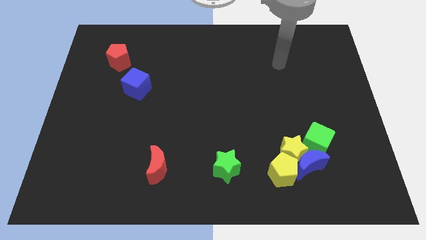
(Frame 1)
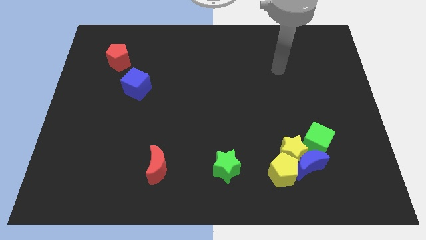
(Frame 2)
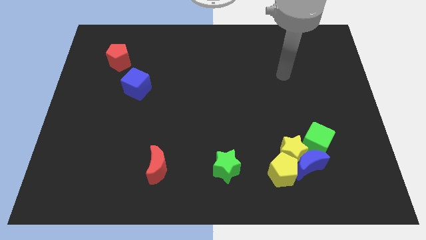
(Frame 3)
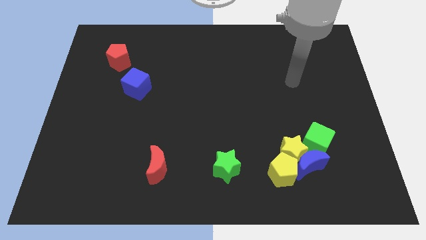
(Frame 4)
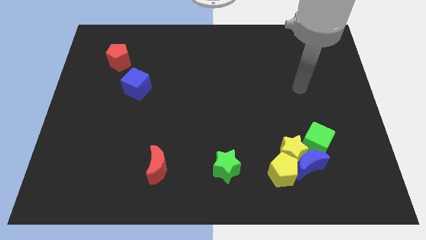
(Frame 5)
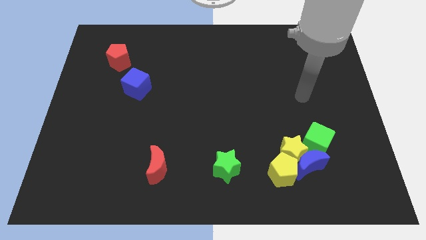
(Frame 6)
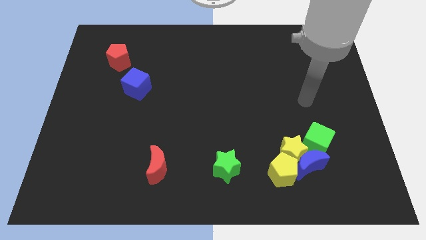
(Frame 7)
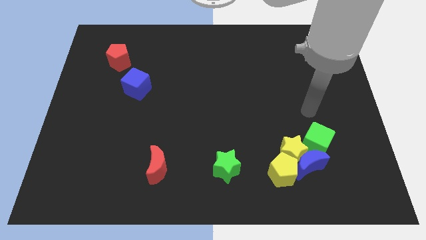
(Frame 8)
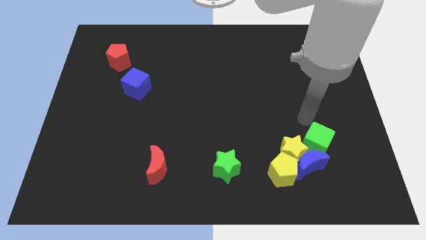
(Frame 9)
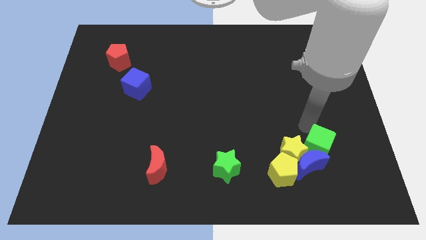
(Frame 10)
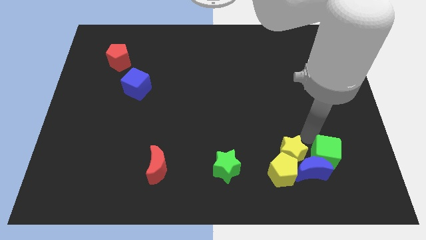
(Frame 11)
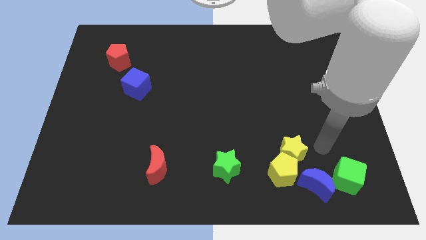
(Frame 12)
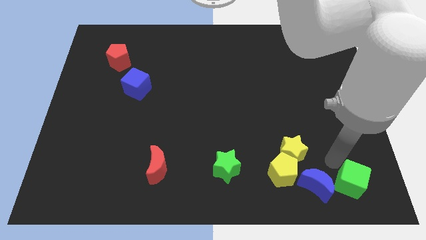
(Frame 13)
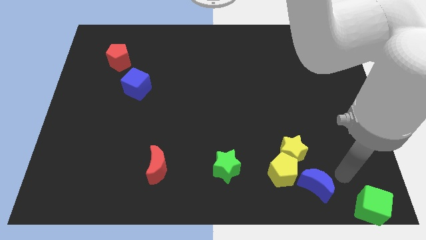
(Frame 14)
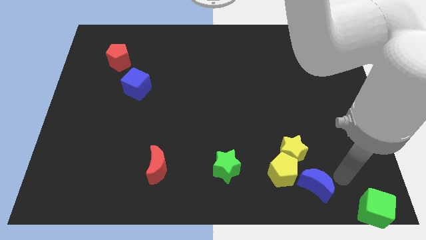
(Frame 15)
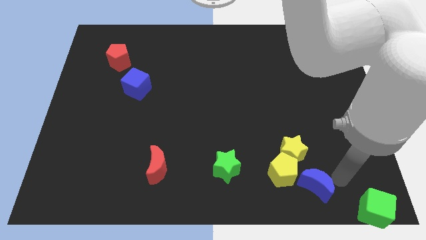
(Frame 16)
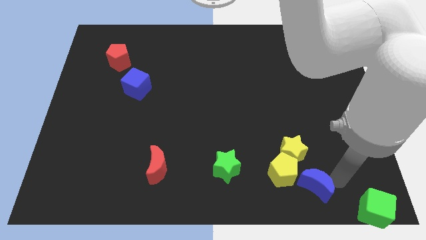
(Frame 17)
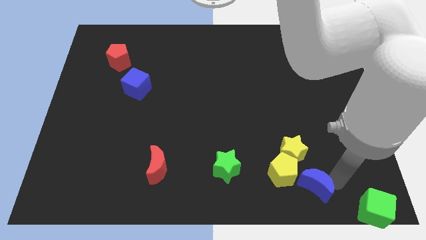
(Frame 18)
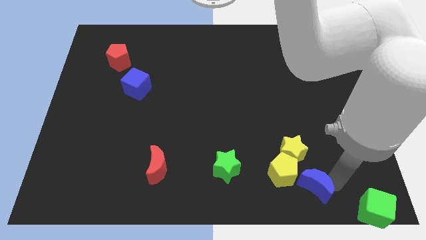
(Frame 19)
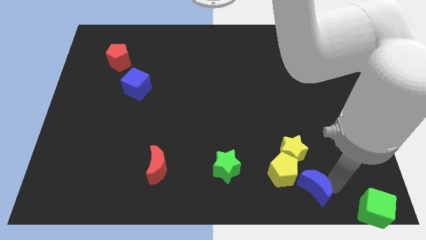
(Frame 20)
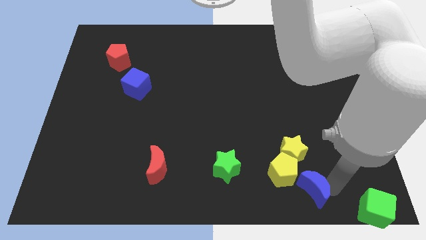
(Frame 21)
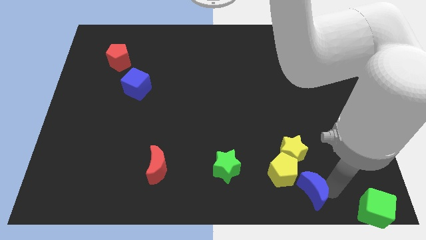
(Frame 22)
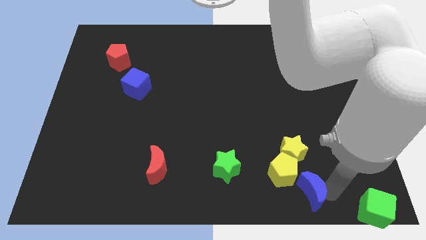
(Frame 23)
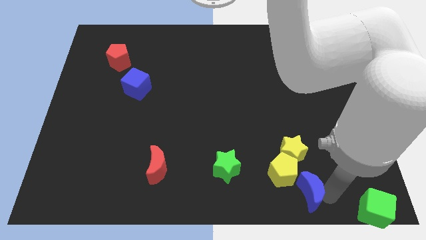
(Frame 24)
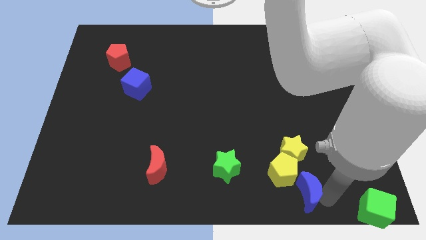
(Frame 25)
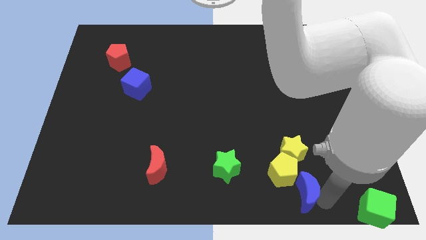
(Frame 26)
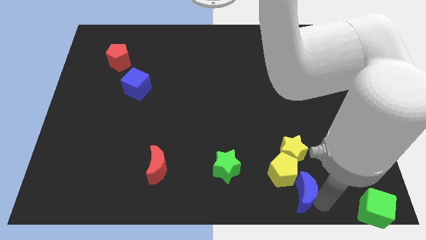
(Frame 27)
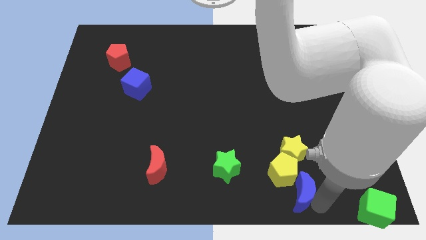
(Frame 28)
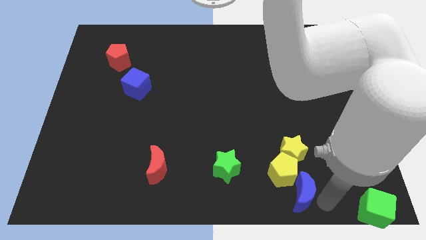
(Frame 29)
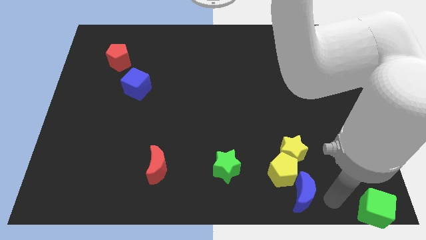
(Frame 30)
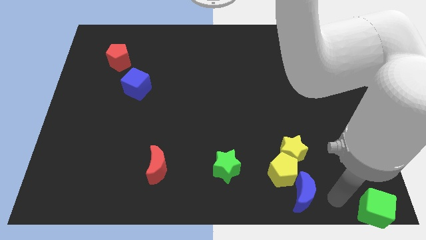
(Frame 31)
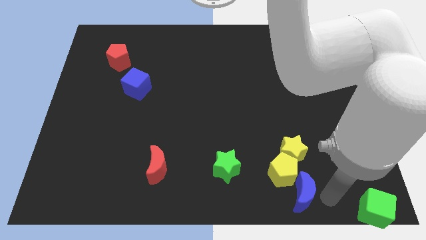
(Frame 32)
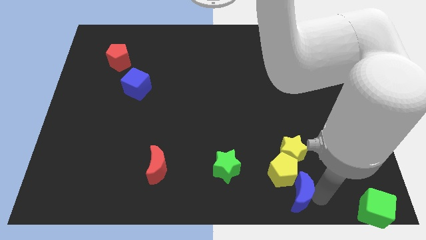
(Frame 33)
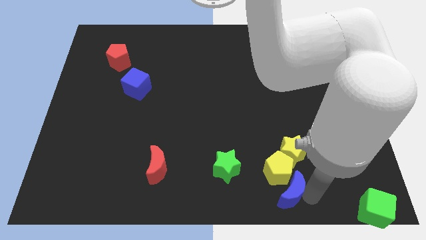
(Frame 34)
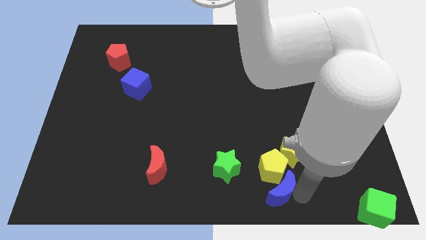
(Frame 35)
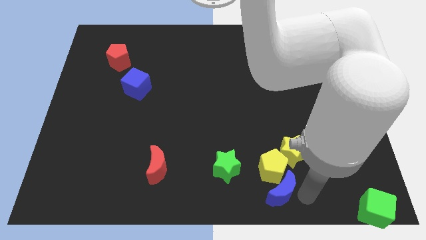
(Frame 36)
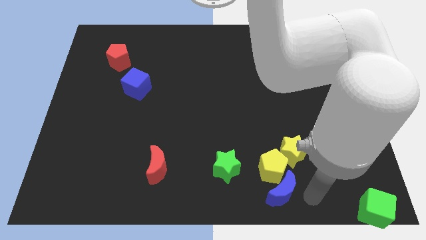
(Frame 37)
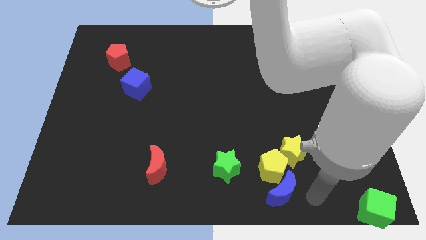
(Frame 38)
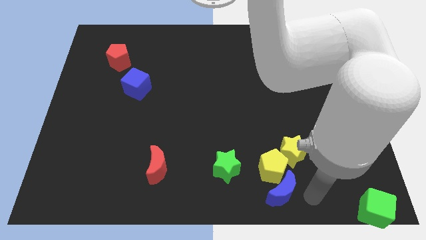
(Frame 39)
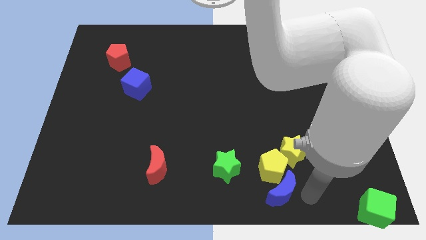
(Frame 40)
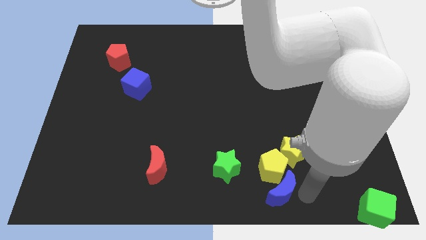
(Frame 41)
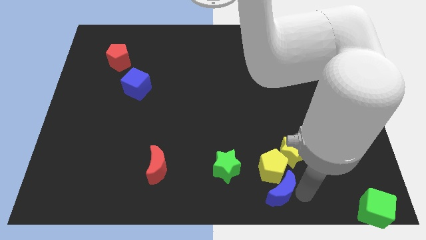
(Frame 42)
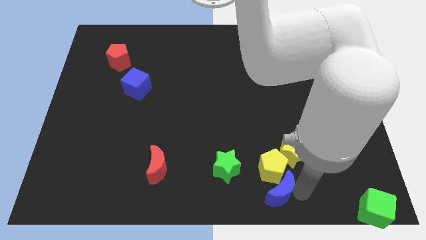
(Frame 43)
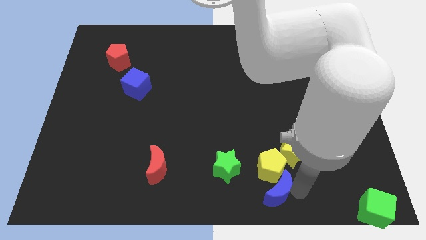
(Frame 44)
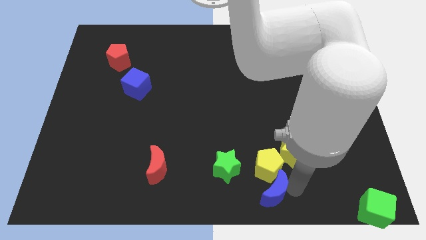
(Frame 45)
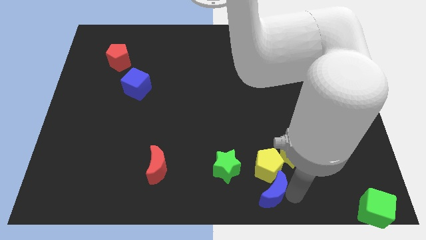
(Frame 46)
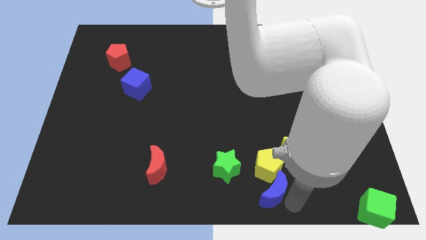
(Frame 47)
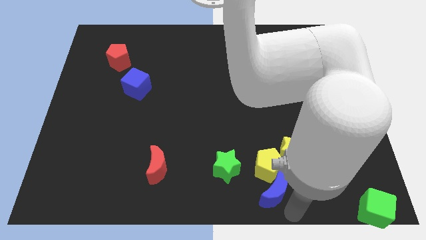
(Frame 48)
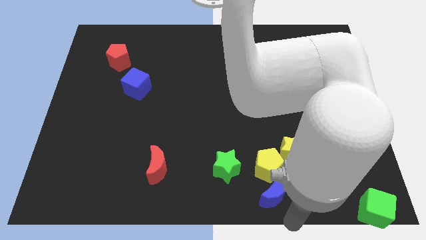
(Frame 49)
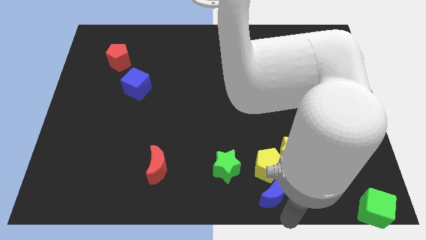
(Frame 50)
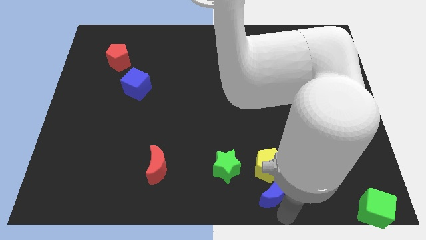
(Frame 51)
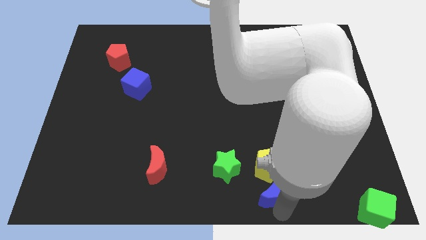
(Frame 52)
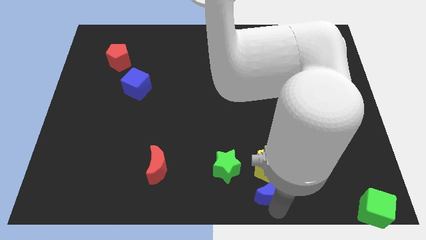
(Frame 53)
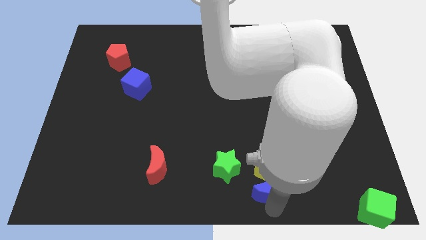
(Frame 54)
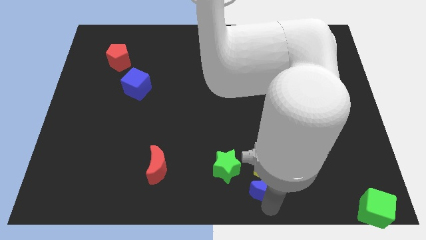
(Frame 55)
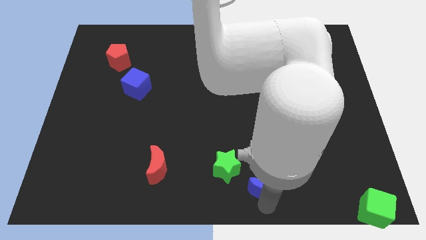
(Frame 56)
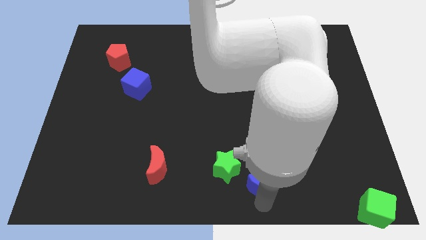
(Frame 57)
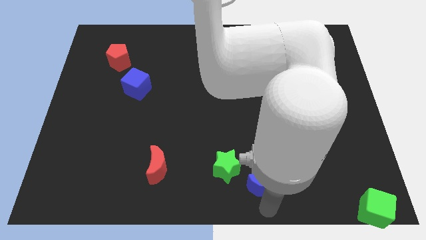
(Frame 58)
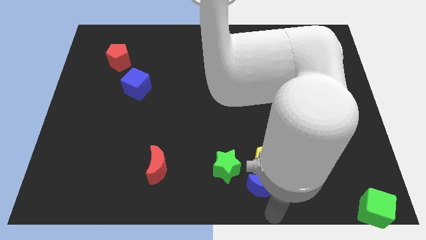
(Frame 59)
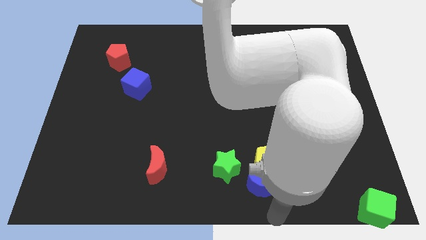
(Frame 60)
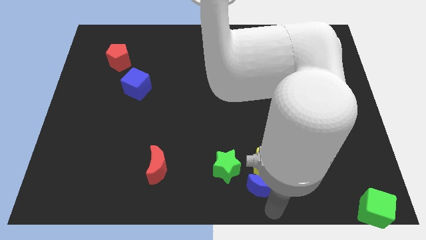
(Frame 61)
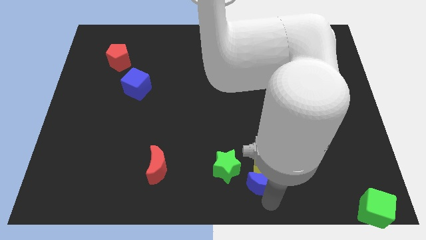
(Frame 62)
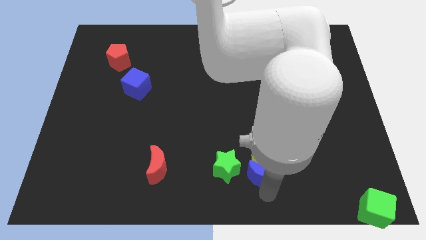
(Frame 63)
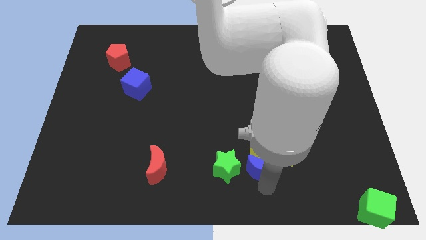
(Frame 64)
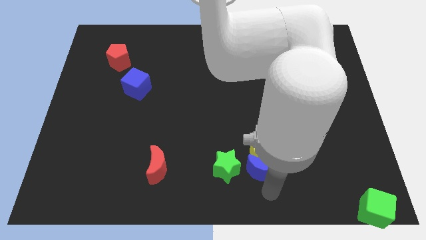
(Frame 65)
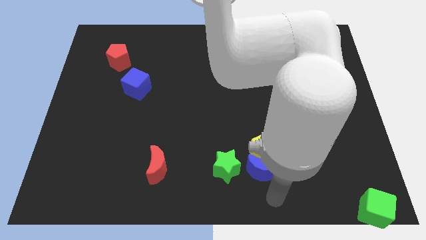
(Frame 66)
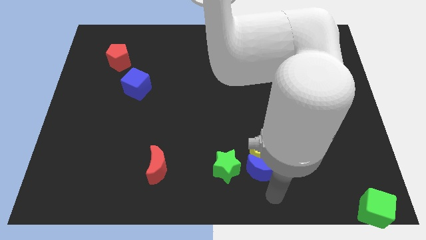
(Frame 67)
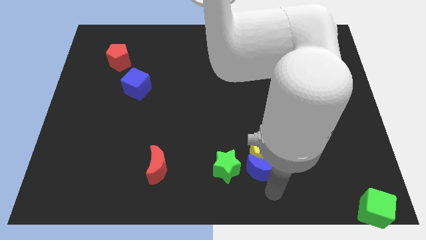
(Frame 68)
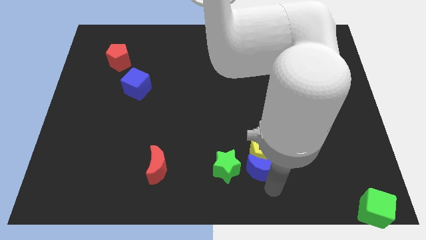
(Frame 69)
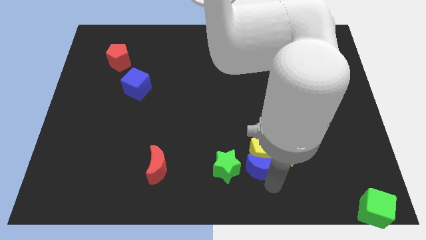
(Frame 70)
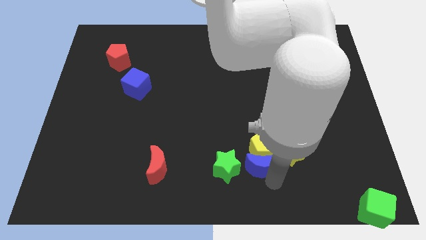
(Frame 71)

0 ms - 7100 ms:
push the blue moon to the top right of the green star

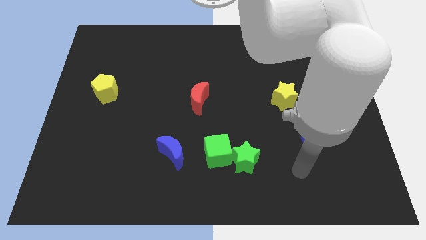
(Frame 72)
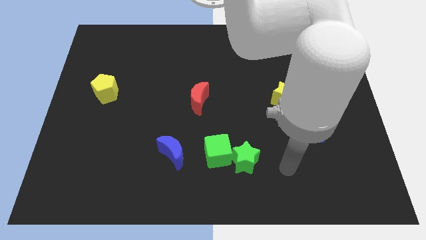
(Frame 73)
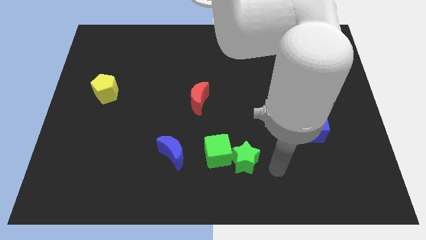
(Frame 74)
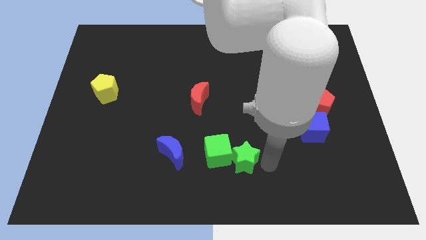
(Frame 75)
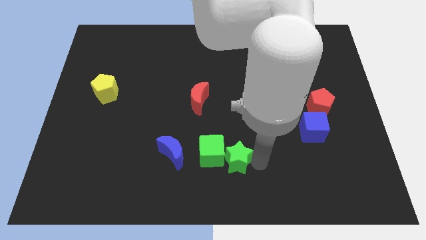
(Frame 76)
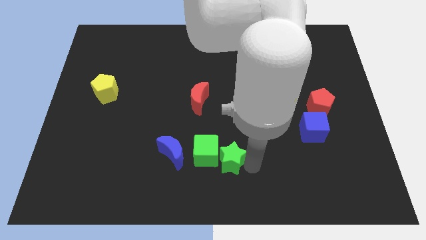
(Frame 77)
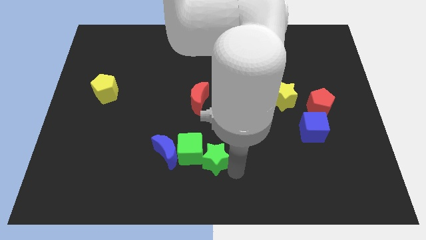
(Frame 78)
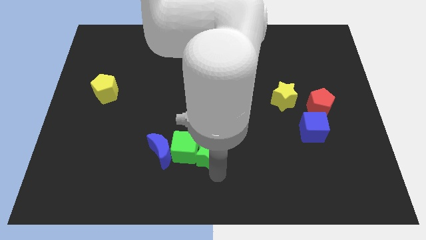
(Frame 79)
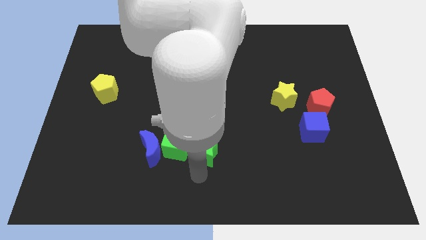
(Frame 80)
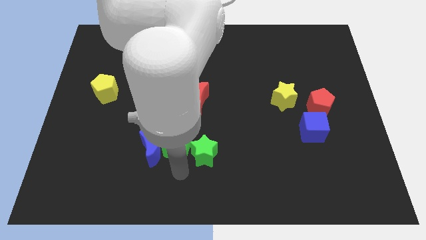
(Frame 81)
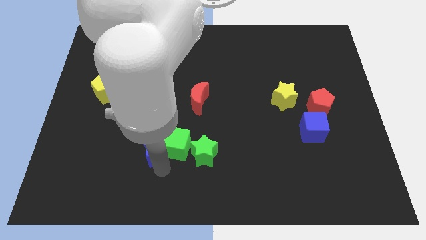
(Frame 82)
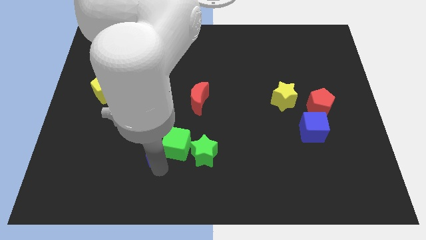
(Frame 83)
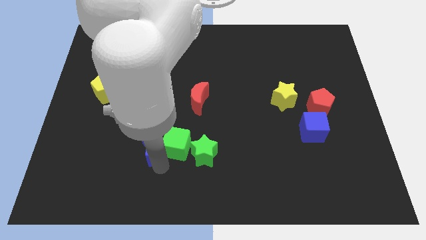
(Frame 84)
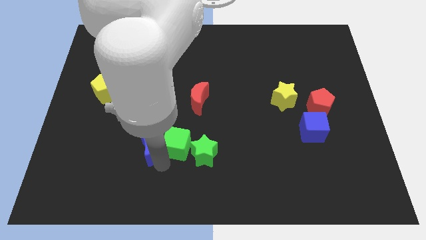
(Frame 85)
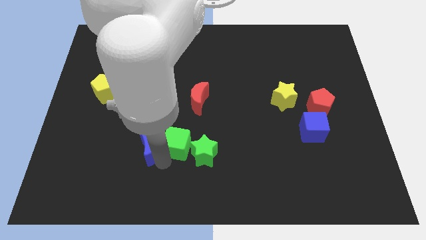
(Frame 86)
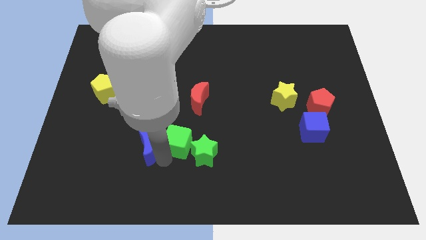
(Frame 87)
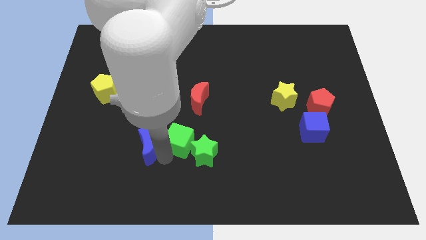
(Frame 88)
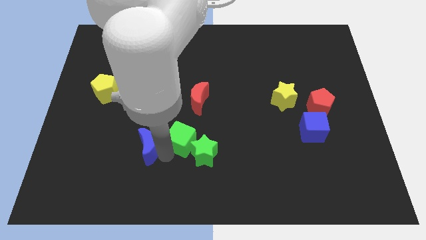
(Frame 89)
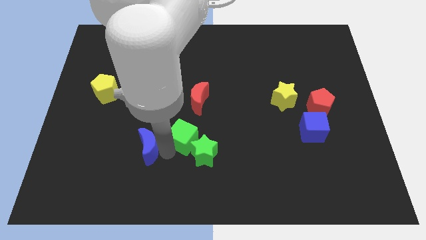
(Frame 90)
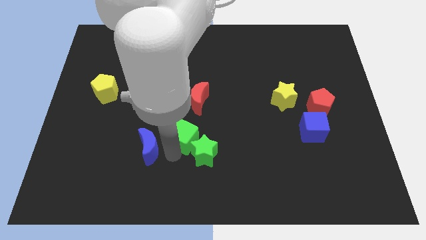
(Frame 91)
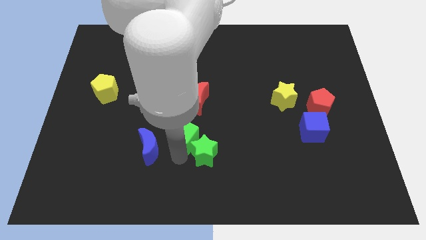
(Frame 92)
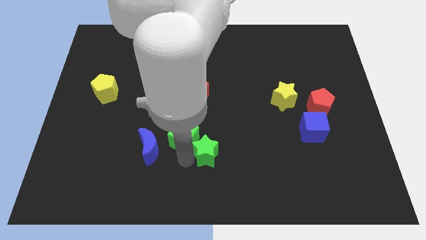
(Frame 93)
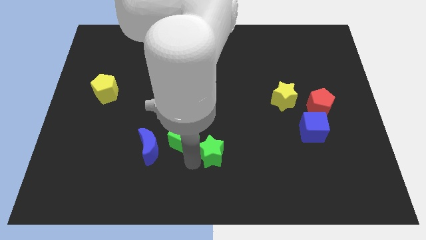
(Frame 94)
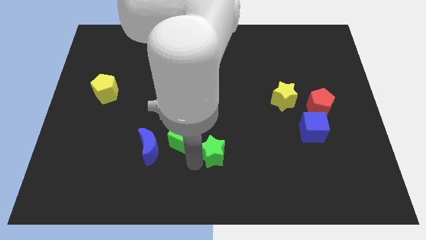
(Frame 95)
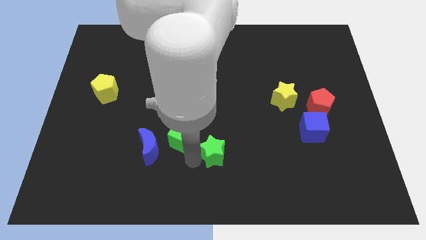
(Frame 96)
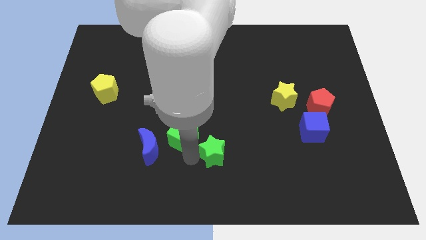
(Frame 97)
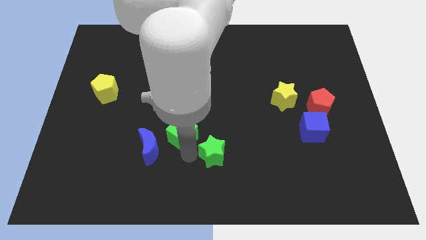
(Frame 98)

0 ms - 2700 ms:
slide the green cube diagonally down and to the left of the red moon
